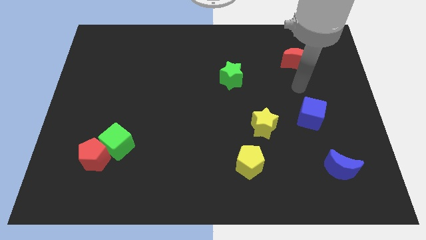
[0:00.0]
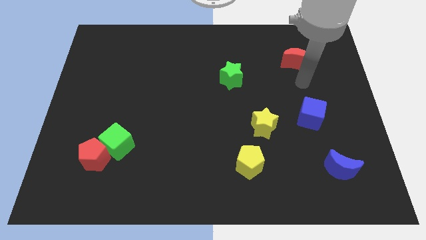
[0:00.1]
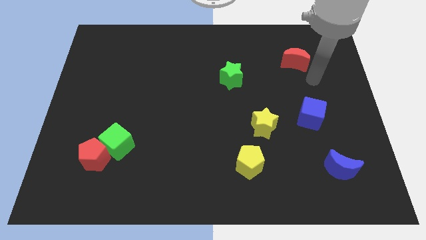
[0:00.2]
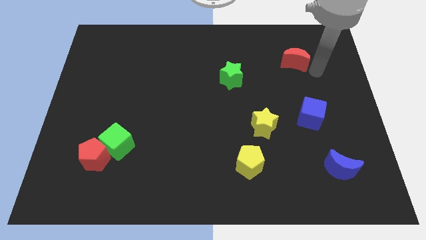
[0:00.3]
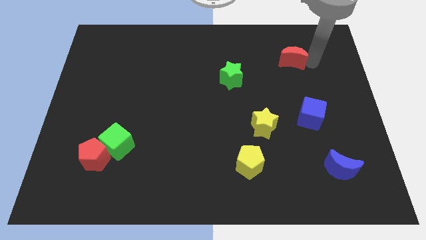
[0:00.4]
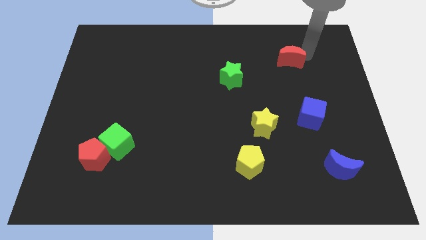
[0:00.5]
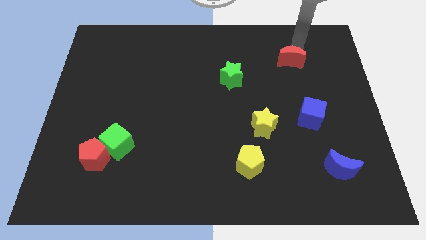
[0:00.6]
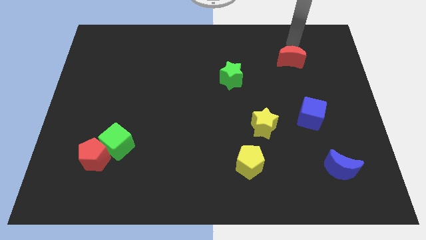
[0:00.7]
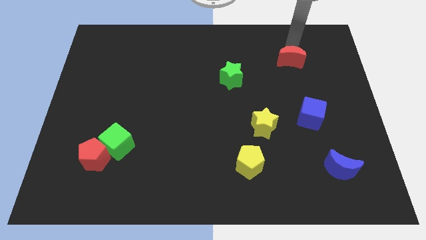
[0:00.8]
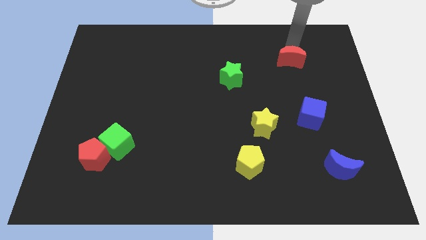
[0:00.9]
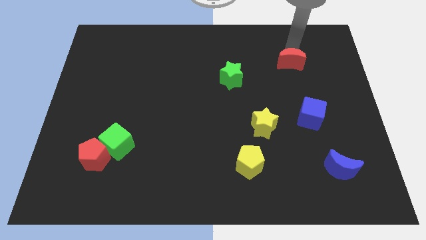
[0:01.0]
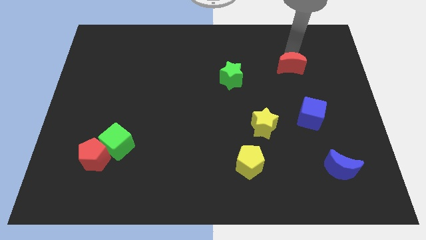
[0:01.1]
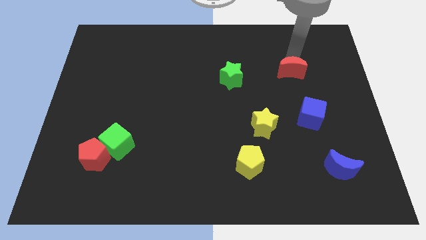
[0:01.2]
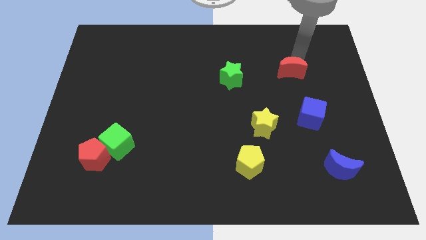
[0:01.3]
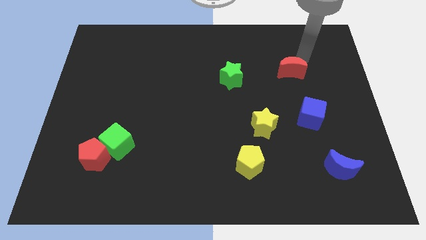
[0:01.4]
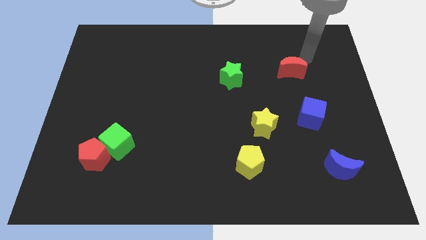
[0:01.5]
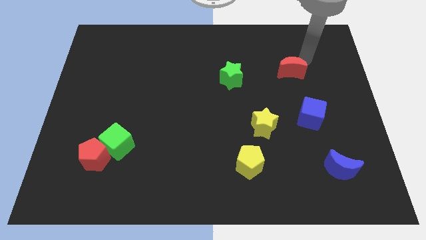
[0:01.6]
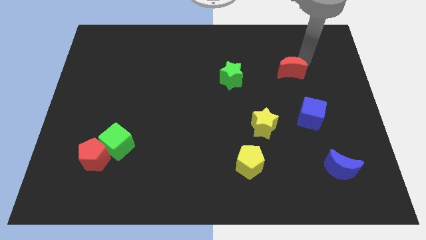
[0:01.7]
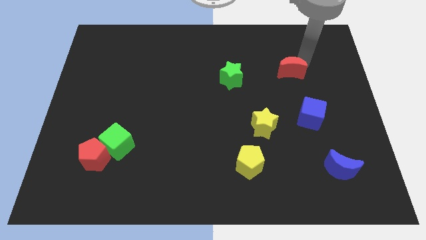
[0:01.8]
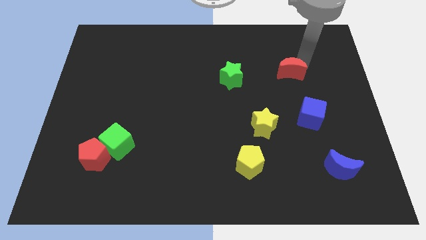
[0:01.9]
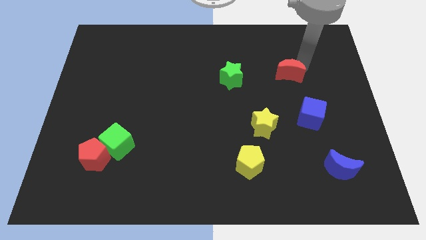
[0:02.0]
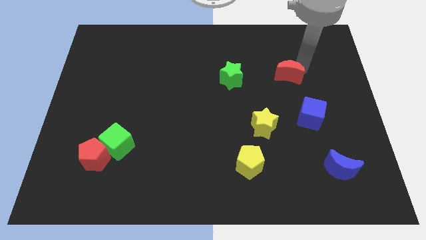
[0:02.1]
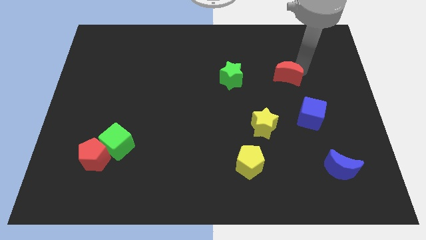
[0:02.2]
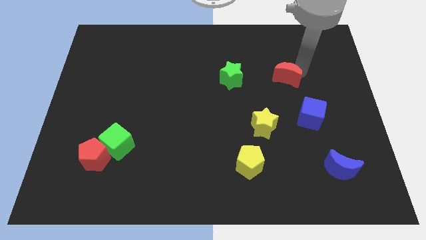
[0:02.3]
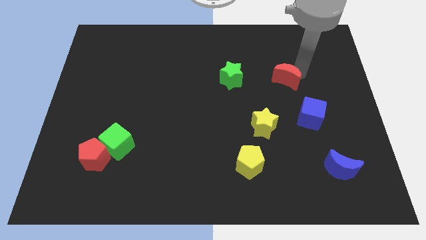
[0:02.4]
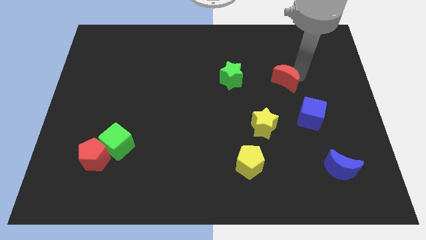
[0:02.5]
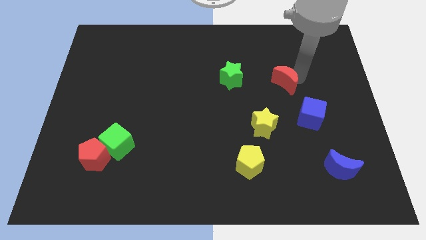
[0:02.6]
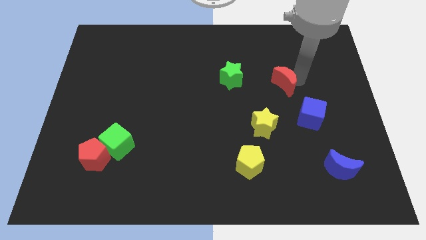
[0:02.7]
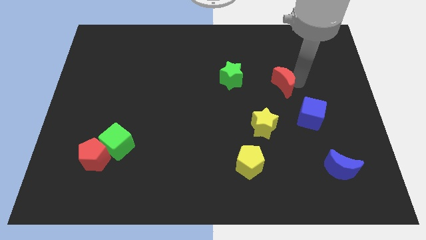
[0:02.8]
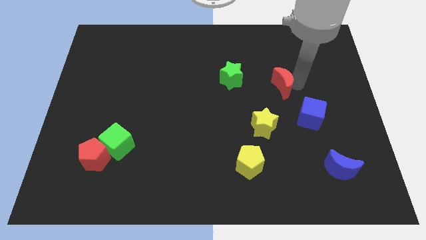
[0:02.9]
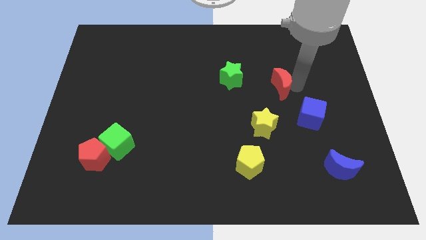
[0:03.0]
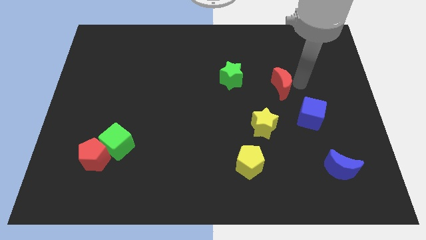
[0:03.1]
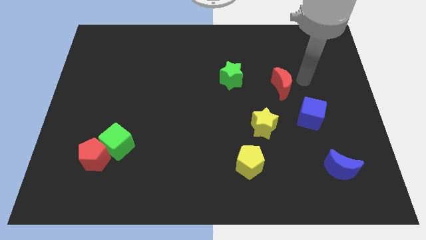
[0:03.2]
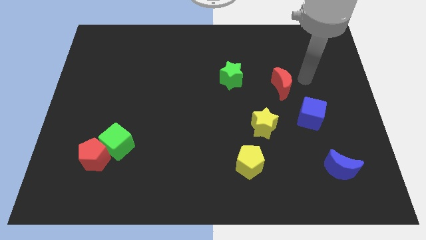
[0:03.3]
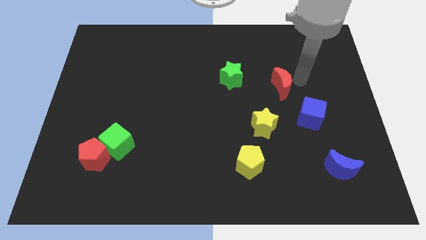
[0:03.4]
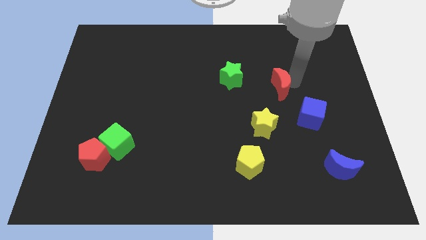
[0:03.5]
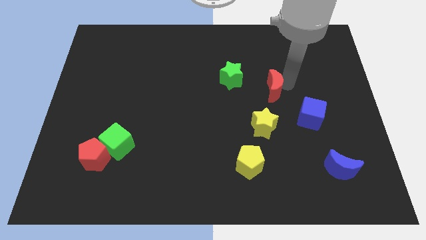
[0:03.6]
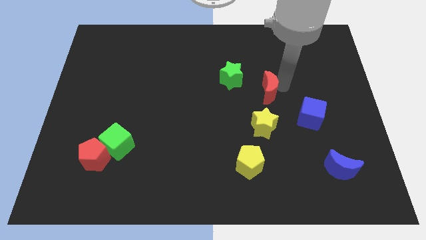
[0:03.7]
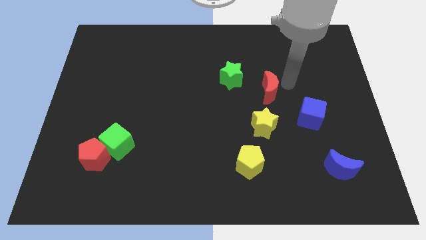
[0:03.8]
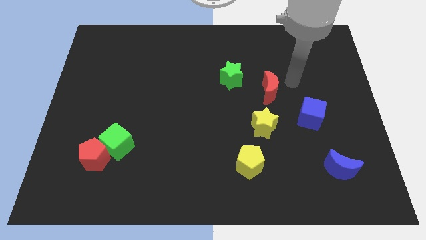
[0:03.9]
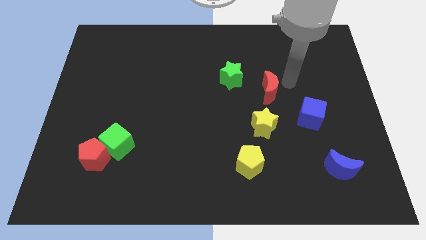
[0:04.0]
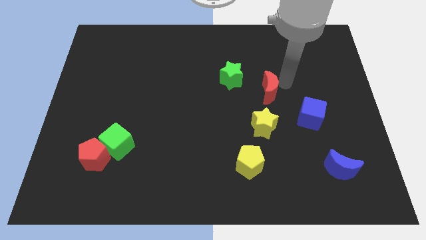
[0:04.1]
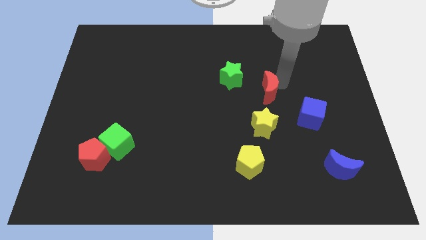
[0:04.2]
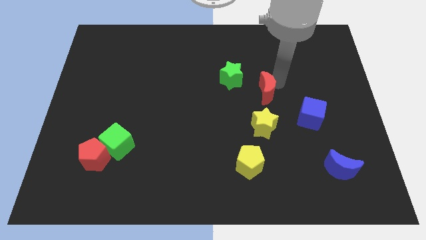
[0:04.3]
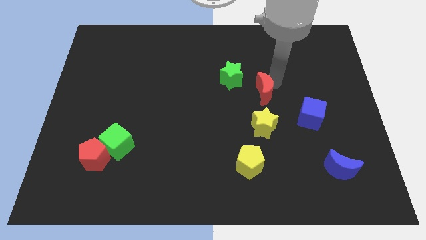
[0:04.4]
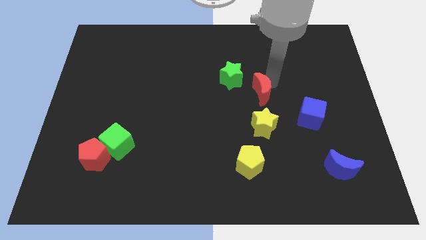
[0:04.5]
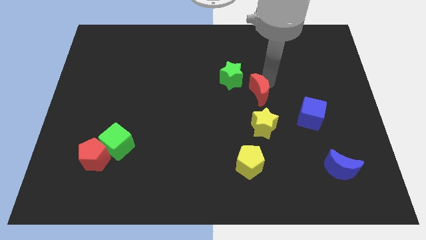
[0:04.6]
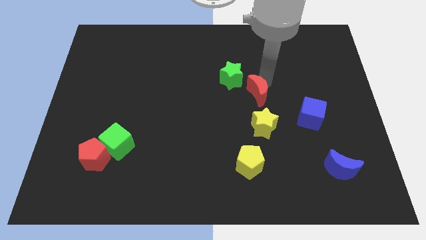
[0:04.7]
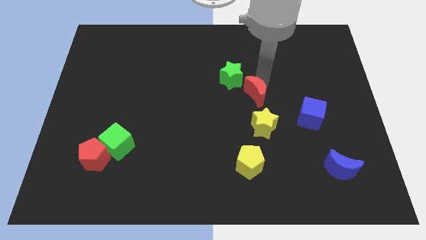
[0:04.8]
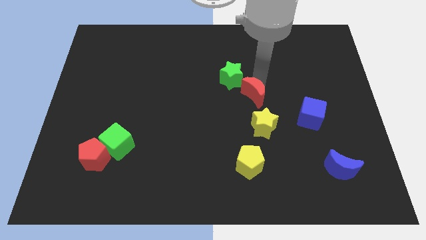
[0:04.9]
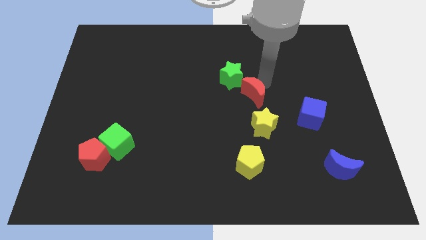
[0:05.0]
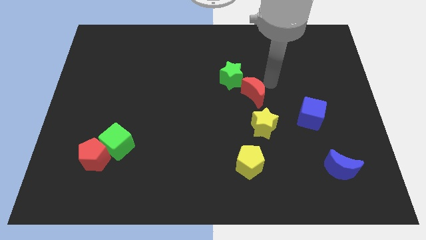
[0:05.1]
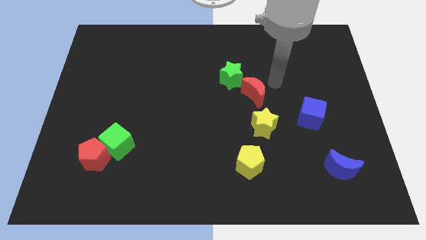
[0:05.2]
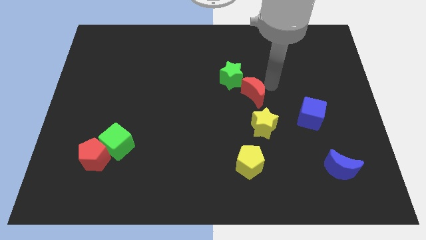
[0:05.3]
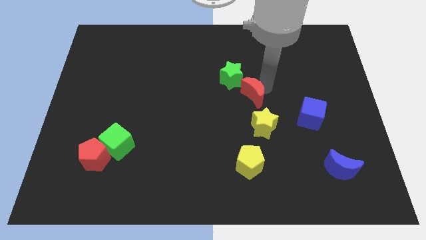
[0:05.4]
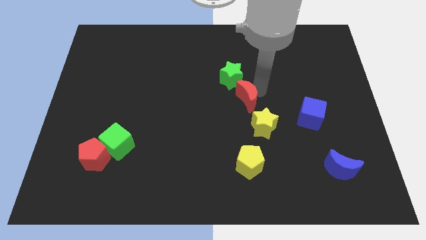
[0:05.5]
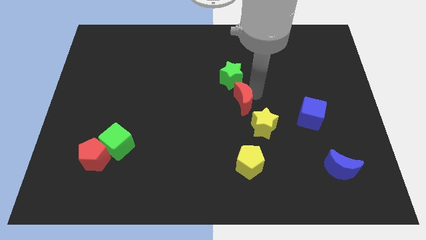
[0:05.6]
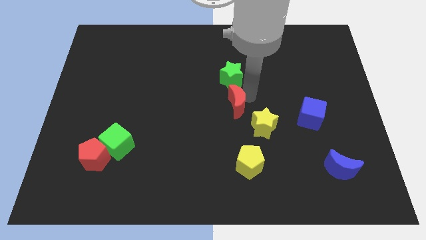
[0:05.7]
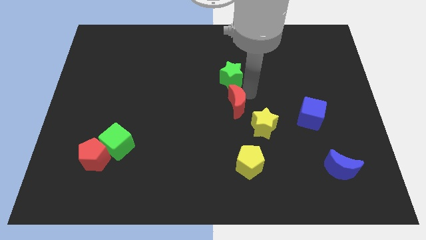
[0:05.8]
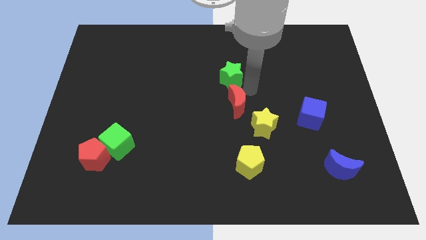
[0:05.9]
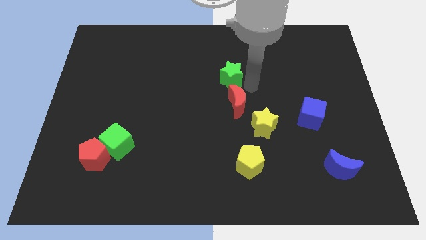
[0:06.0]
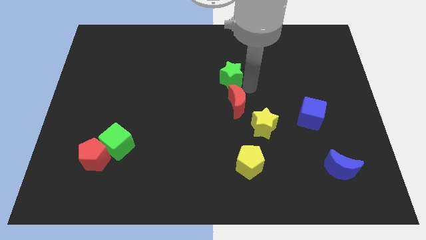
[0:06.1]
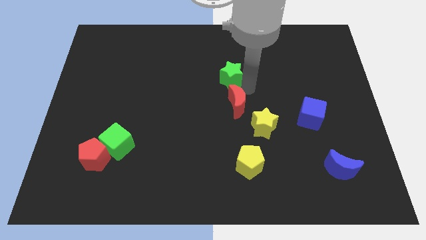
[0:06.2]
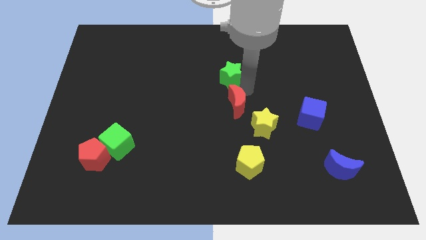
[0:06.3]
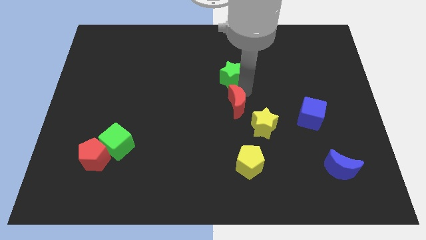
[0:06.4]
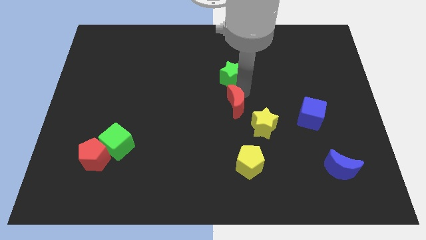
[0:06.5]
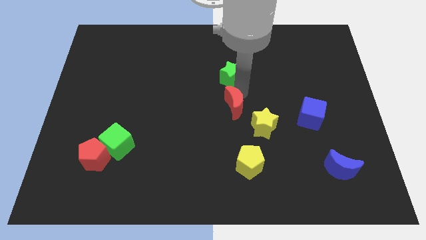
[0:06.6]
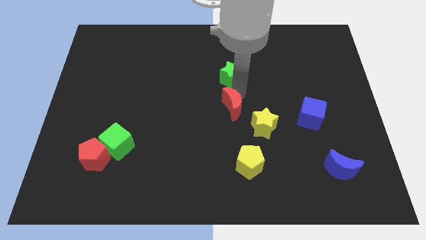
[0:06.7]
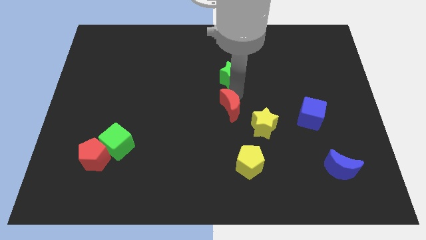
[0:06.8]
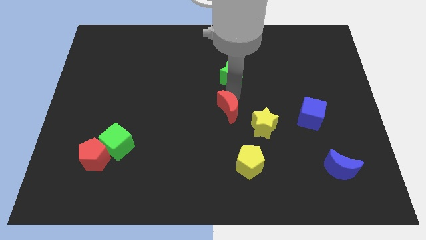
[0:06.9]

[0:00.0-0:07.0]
push the red moon left of the yellow star
